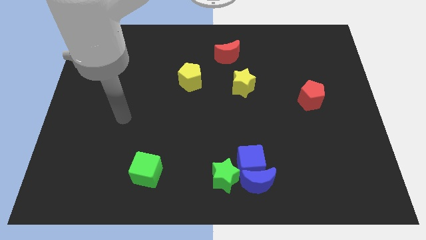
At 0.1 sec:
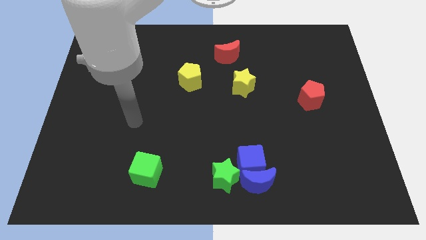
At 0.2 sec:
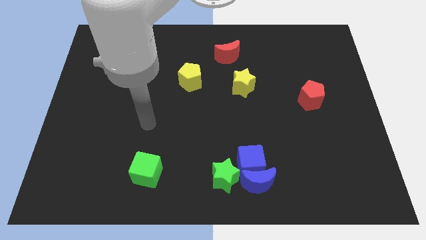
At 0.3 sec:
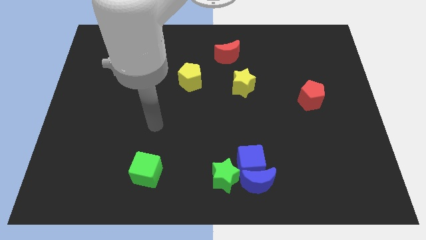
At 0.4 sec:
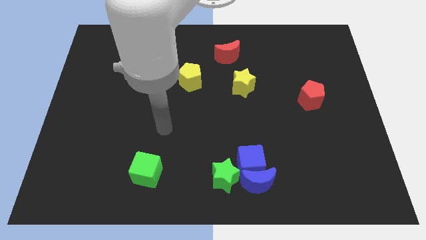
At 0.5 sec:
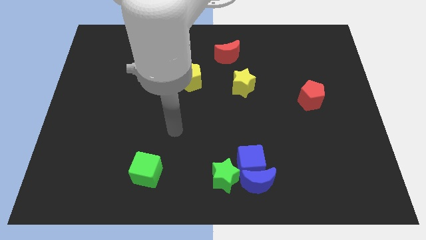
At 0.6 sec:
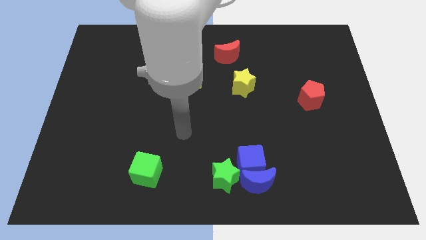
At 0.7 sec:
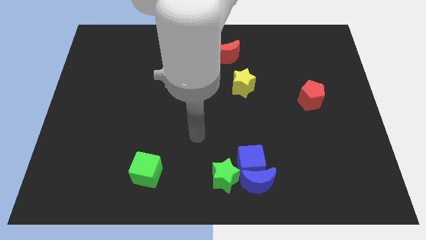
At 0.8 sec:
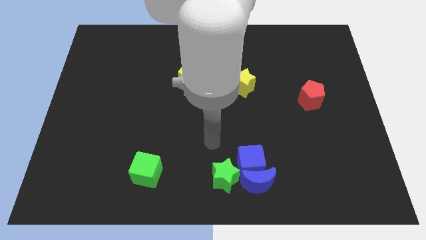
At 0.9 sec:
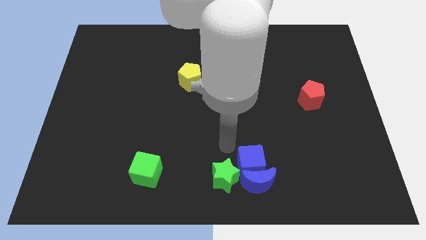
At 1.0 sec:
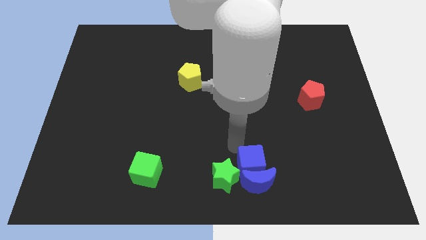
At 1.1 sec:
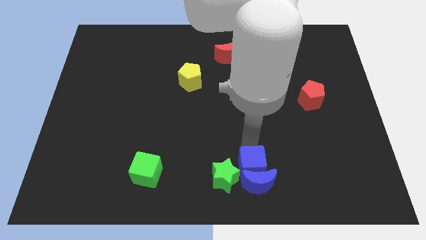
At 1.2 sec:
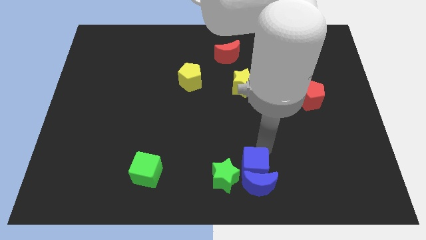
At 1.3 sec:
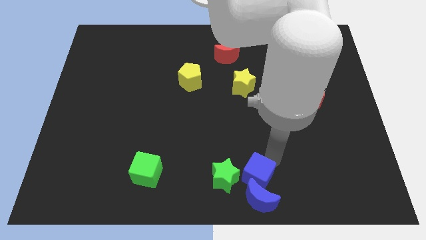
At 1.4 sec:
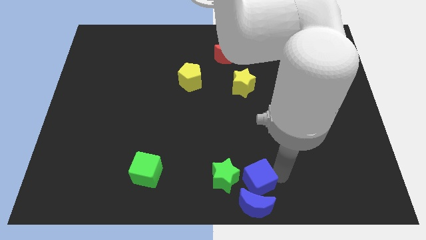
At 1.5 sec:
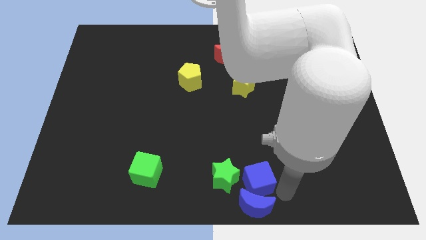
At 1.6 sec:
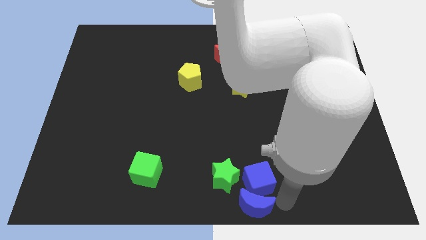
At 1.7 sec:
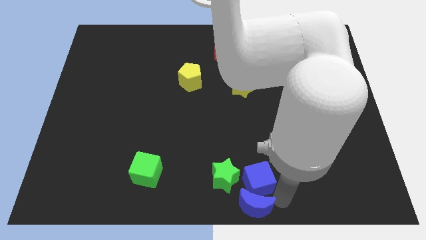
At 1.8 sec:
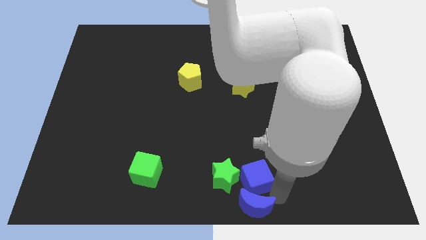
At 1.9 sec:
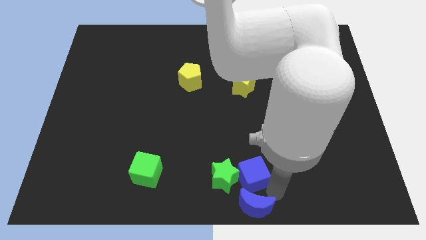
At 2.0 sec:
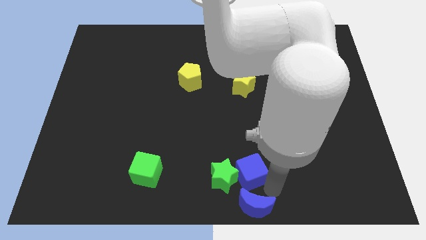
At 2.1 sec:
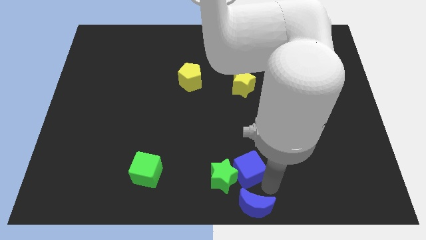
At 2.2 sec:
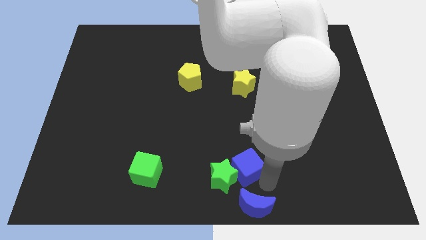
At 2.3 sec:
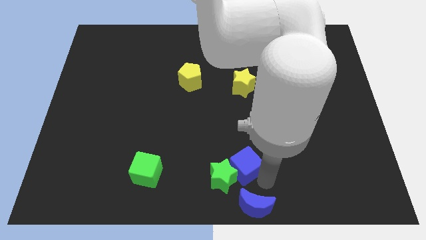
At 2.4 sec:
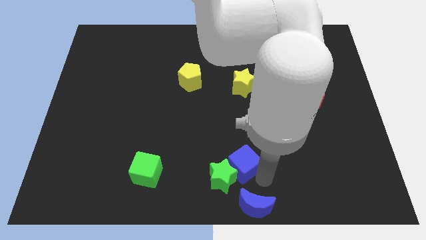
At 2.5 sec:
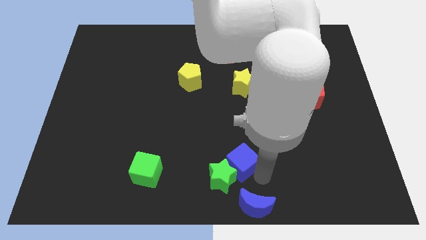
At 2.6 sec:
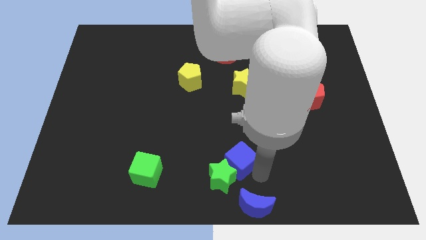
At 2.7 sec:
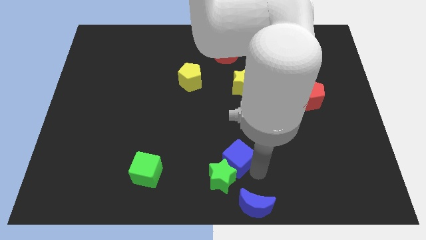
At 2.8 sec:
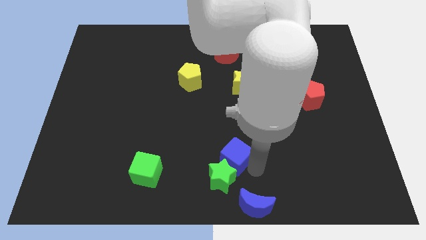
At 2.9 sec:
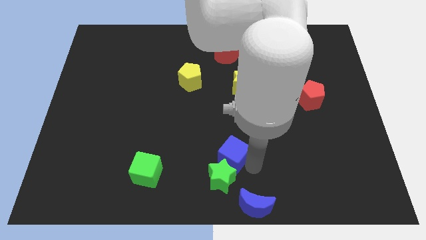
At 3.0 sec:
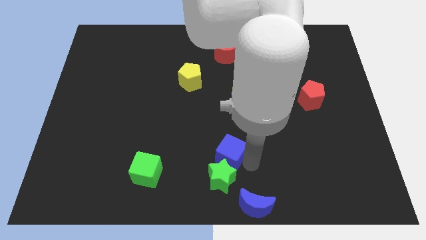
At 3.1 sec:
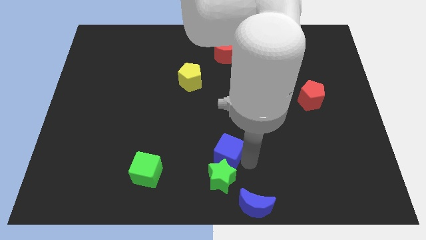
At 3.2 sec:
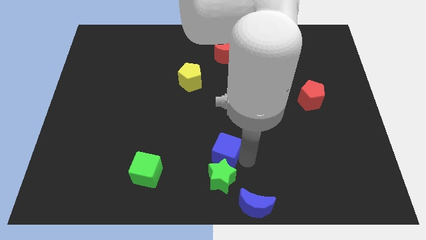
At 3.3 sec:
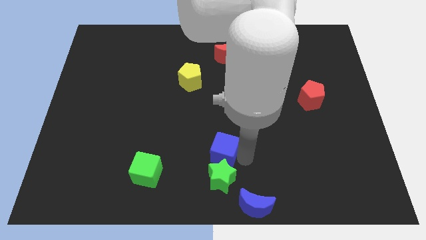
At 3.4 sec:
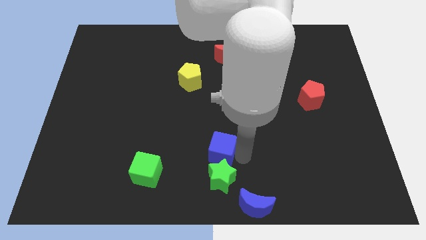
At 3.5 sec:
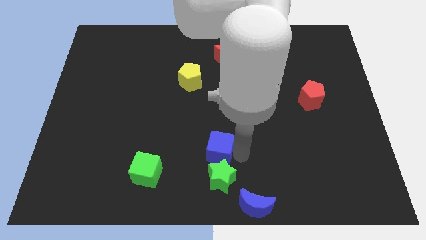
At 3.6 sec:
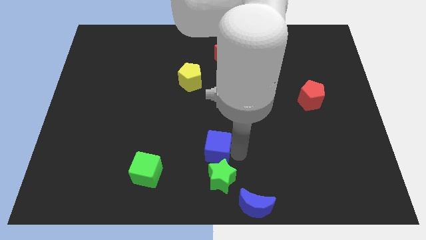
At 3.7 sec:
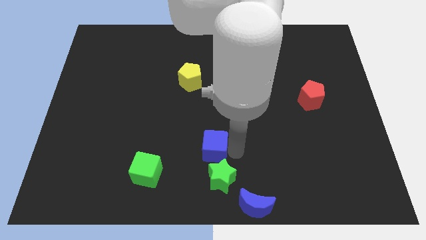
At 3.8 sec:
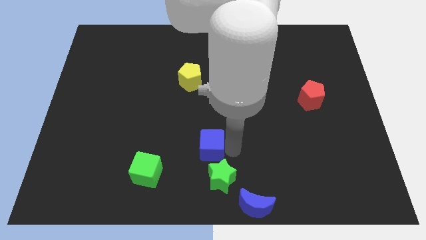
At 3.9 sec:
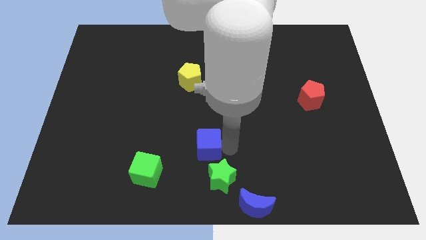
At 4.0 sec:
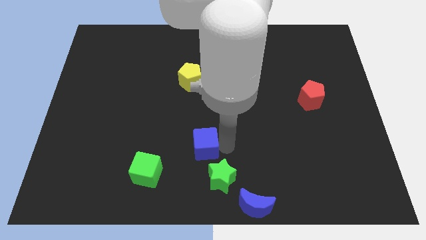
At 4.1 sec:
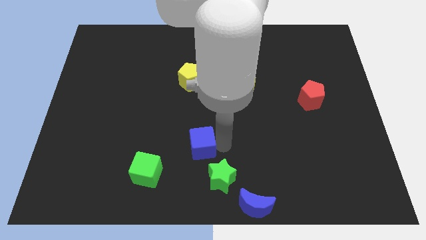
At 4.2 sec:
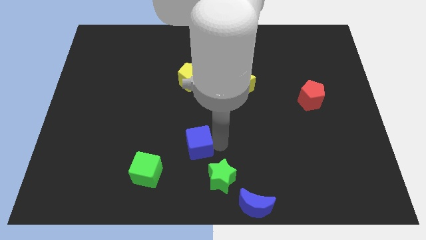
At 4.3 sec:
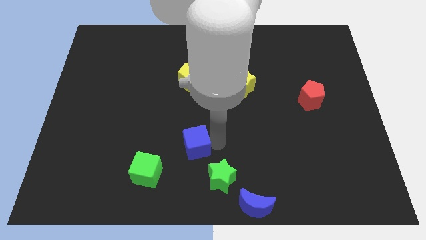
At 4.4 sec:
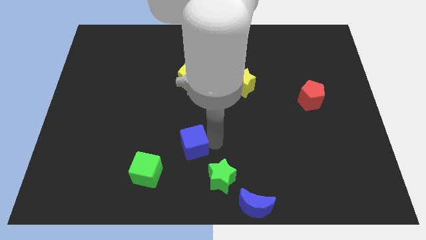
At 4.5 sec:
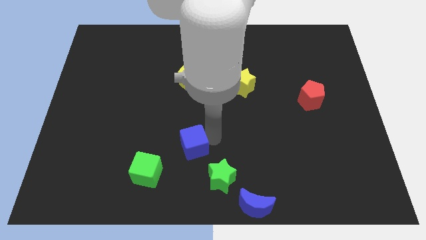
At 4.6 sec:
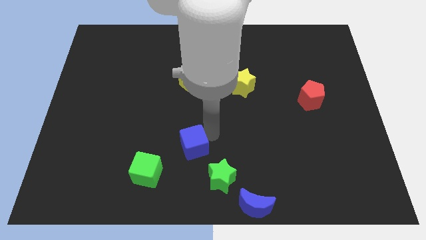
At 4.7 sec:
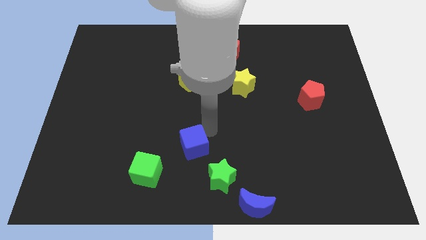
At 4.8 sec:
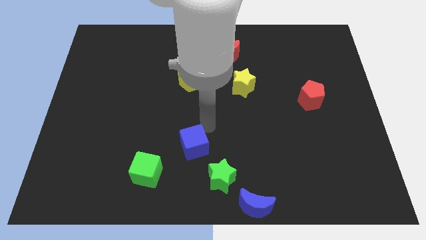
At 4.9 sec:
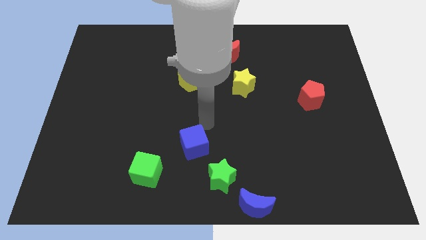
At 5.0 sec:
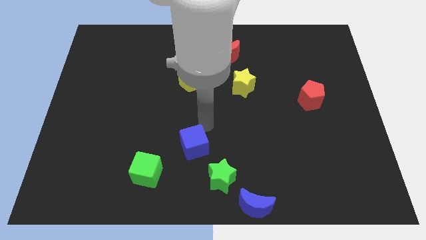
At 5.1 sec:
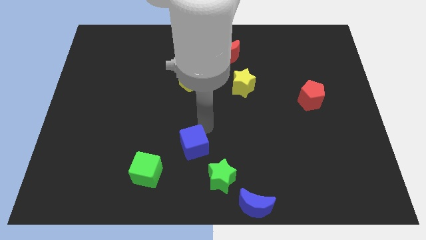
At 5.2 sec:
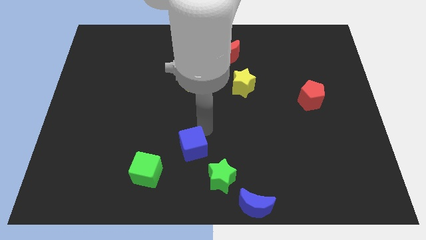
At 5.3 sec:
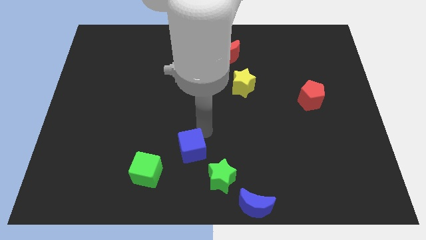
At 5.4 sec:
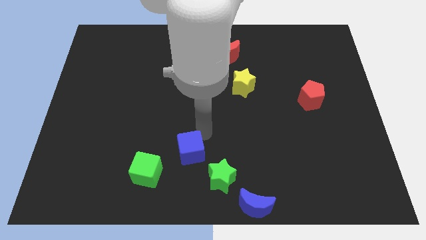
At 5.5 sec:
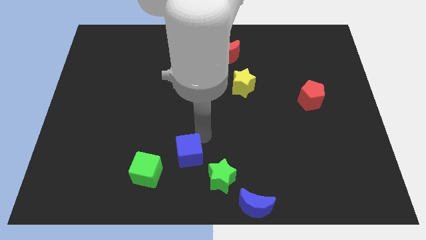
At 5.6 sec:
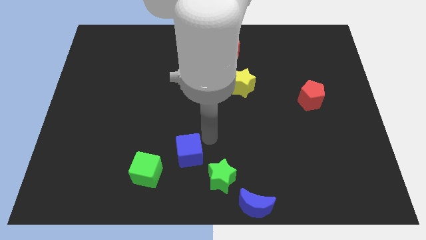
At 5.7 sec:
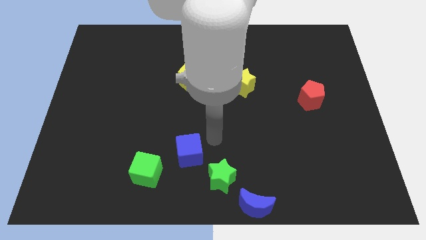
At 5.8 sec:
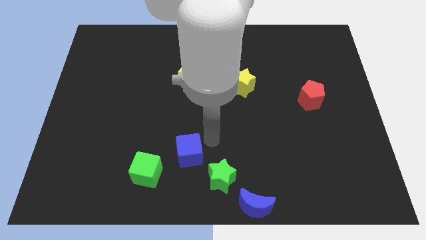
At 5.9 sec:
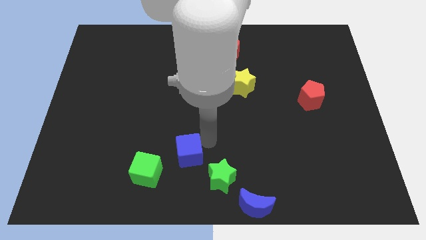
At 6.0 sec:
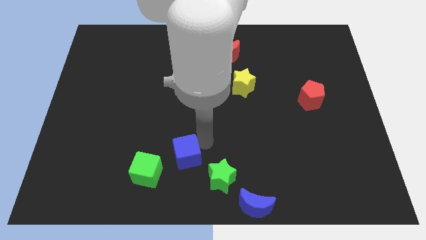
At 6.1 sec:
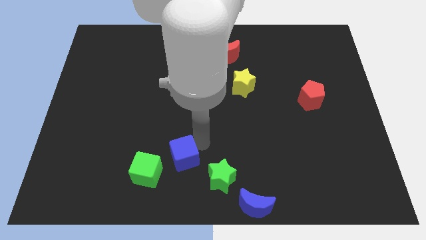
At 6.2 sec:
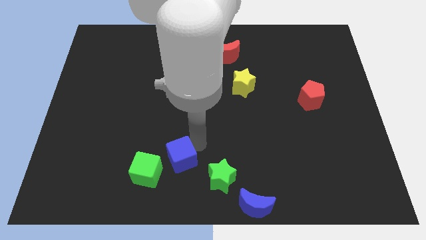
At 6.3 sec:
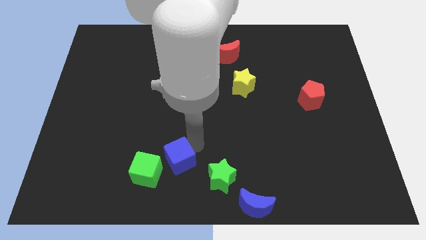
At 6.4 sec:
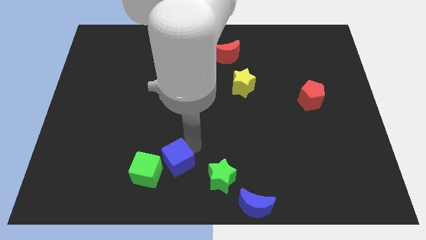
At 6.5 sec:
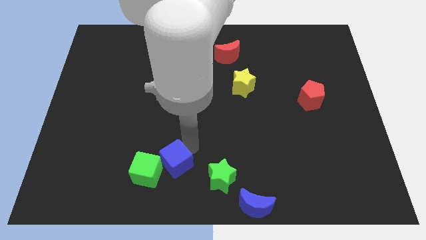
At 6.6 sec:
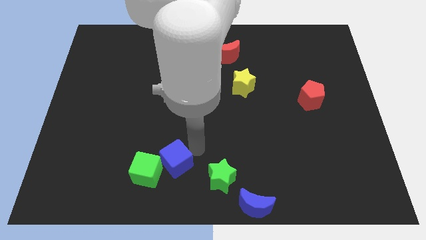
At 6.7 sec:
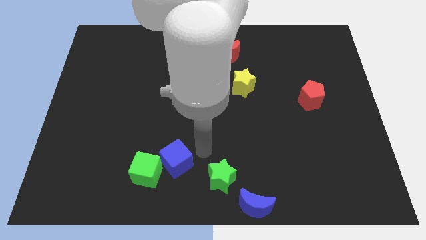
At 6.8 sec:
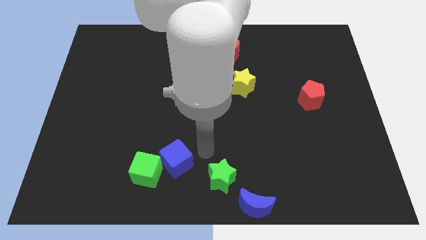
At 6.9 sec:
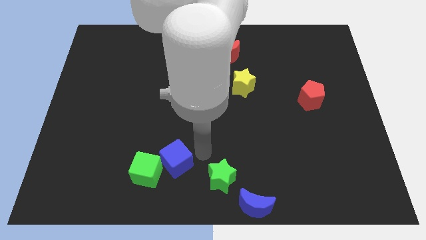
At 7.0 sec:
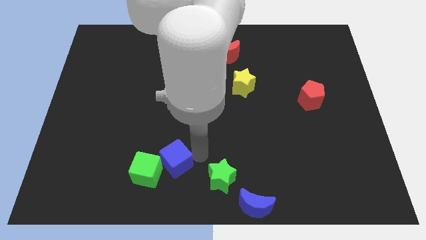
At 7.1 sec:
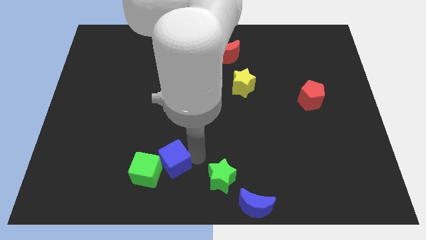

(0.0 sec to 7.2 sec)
slide the blue cube close to the green cube

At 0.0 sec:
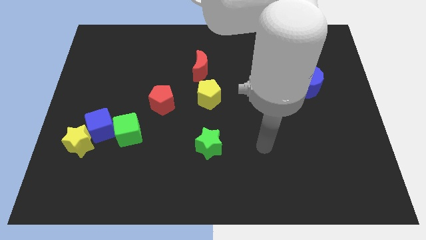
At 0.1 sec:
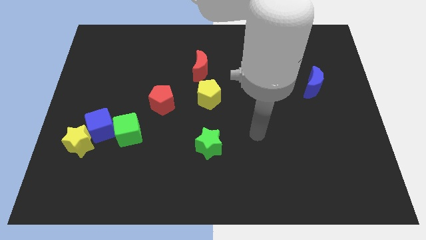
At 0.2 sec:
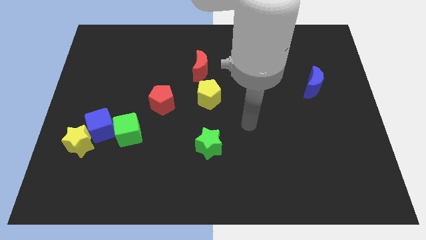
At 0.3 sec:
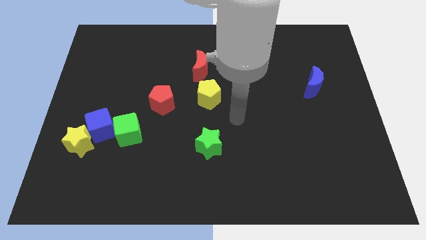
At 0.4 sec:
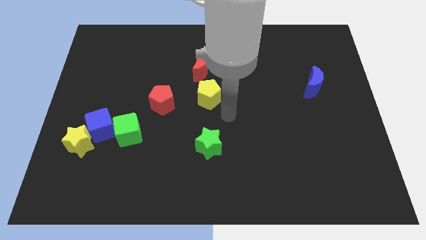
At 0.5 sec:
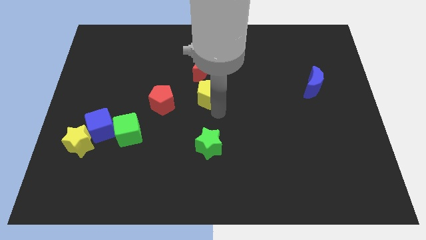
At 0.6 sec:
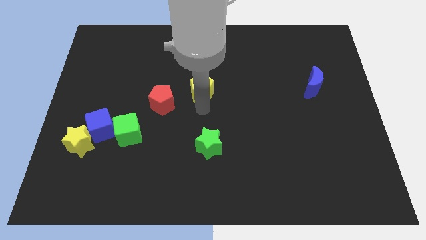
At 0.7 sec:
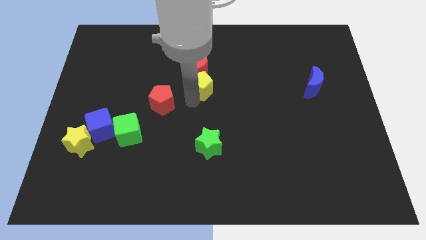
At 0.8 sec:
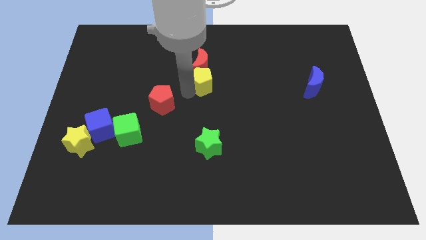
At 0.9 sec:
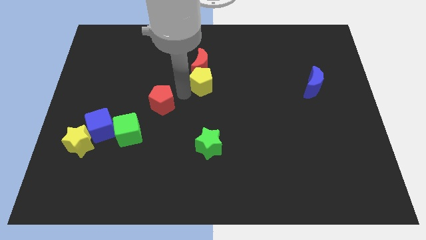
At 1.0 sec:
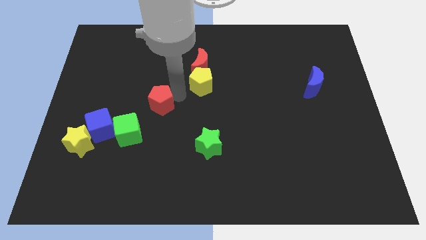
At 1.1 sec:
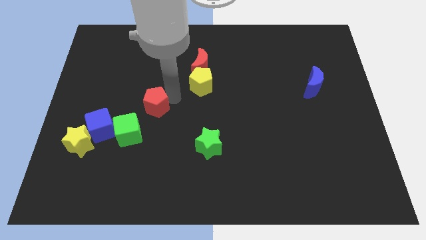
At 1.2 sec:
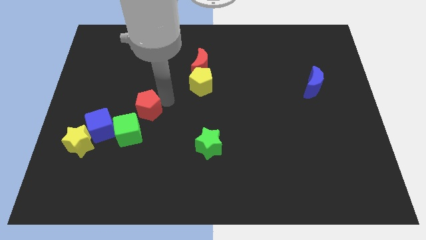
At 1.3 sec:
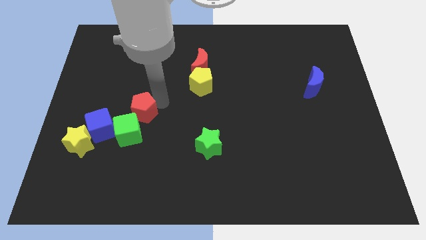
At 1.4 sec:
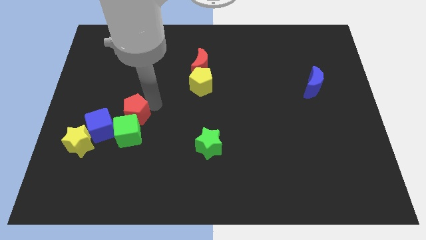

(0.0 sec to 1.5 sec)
slide the red pentagon close to the green cube
